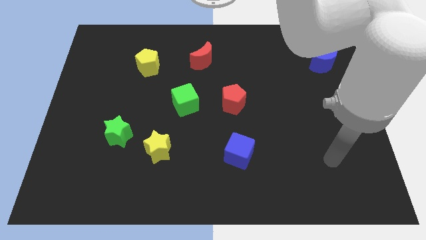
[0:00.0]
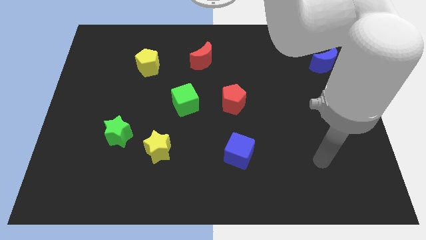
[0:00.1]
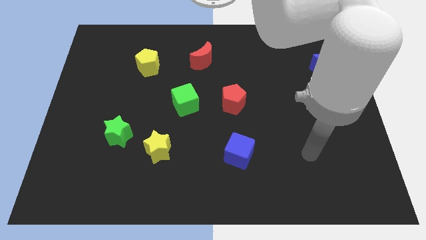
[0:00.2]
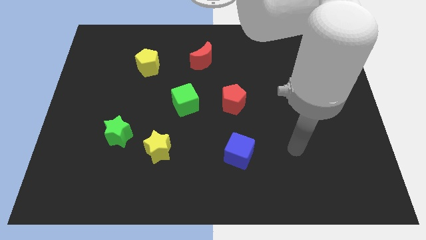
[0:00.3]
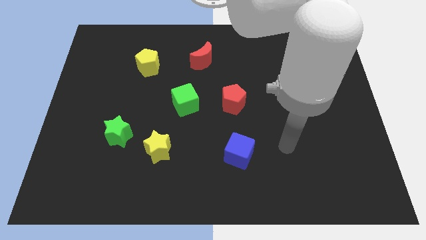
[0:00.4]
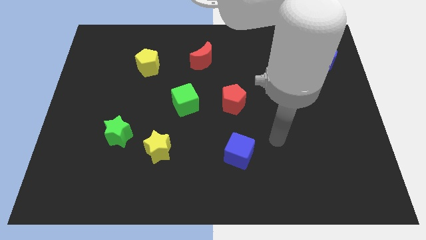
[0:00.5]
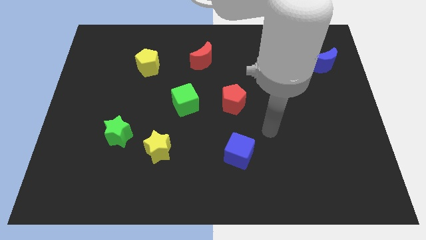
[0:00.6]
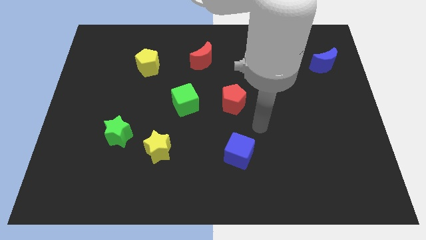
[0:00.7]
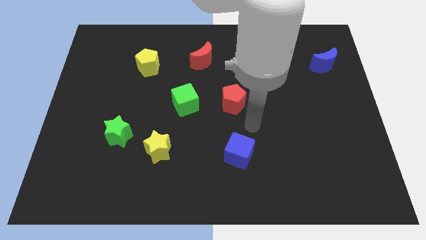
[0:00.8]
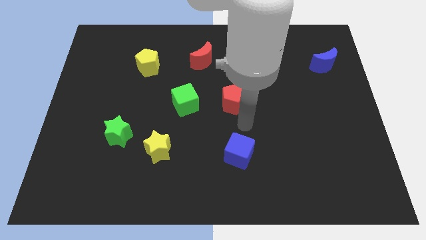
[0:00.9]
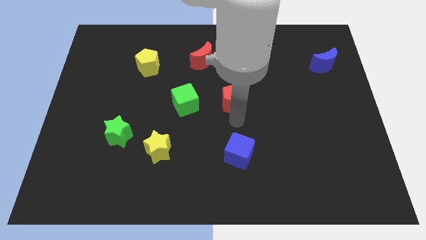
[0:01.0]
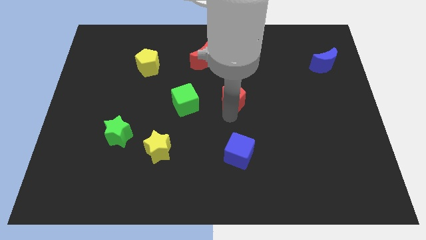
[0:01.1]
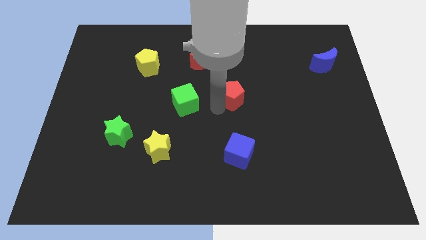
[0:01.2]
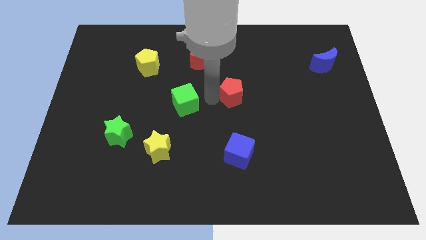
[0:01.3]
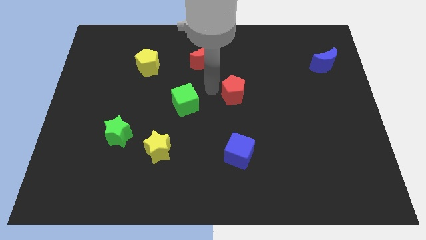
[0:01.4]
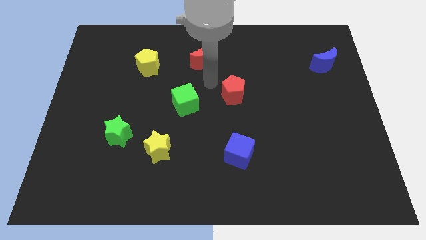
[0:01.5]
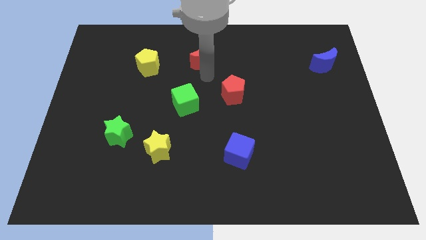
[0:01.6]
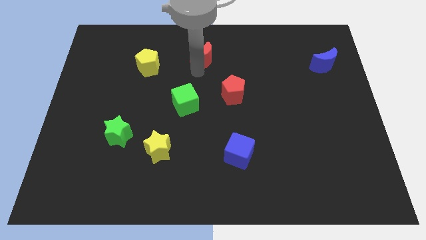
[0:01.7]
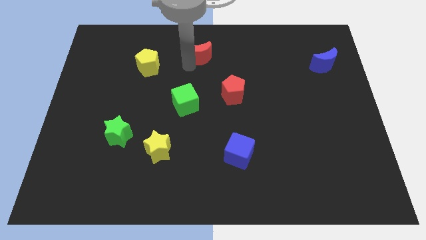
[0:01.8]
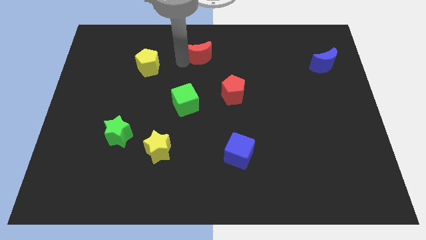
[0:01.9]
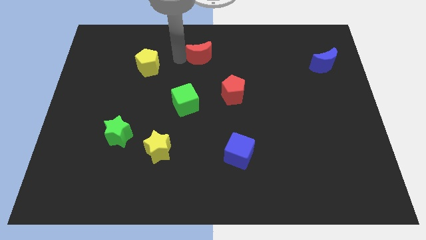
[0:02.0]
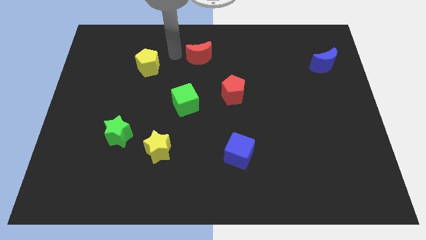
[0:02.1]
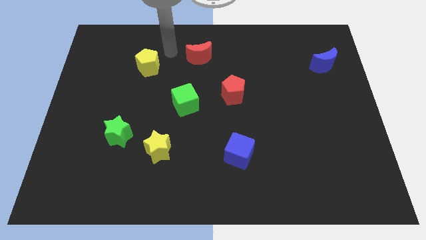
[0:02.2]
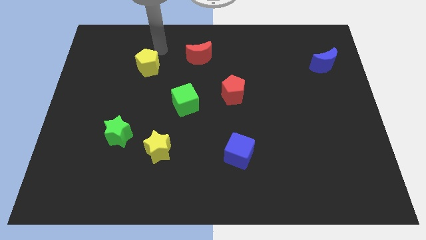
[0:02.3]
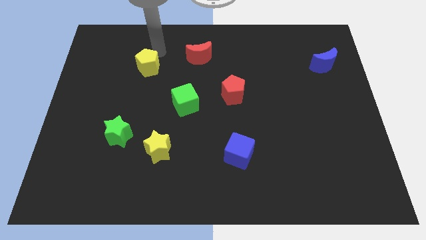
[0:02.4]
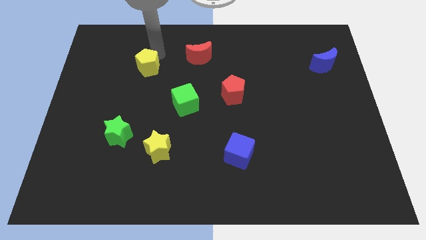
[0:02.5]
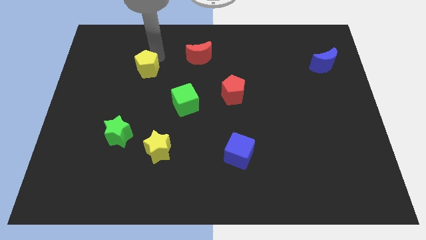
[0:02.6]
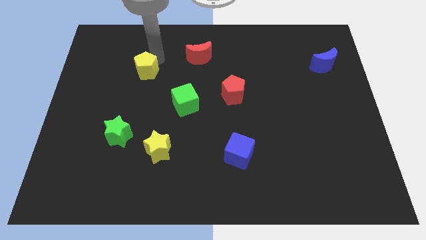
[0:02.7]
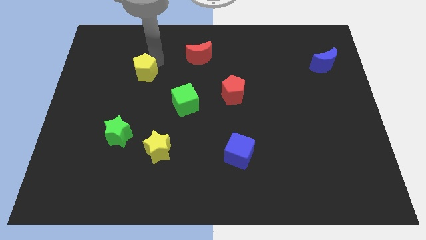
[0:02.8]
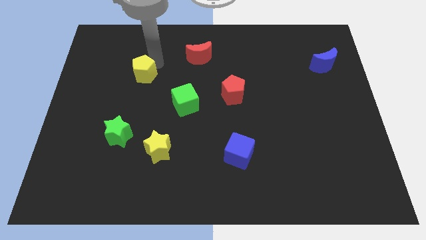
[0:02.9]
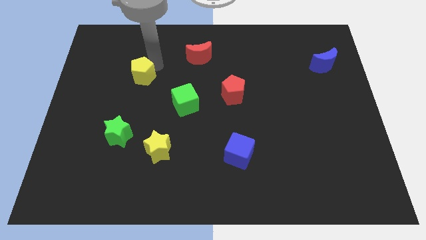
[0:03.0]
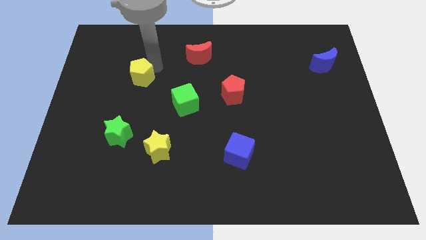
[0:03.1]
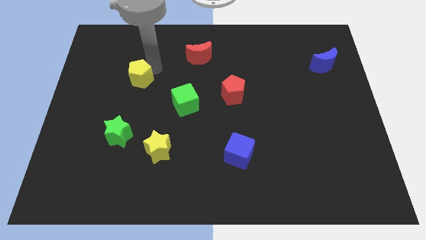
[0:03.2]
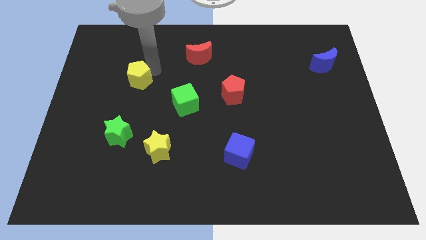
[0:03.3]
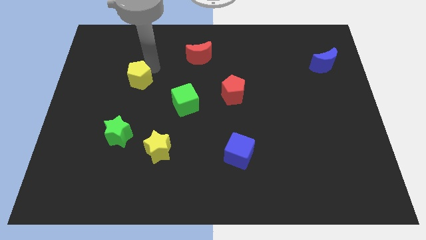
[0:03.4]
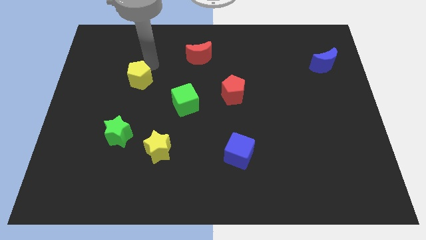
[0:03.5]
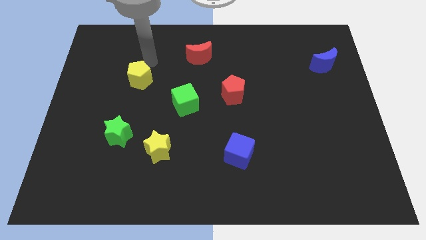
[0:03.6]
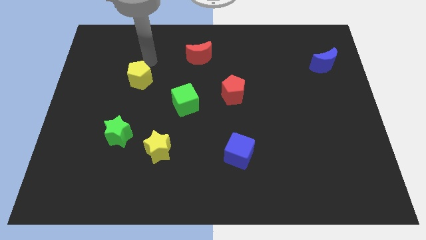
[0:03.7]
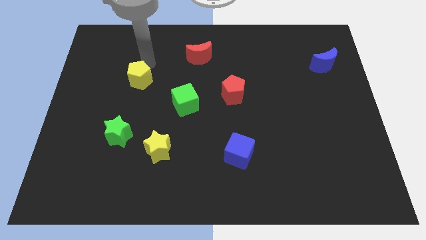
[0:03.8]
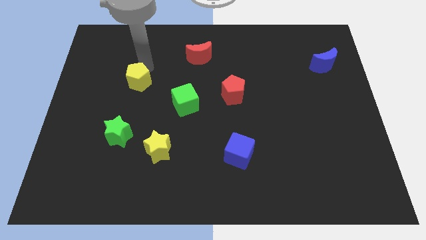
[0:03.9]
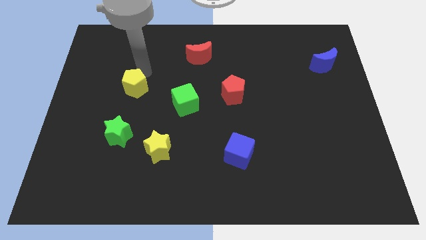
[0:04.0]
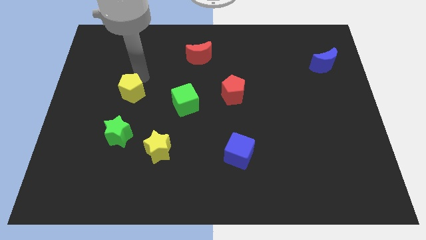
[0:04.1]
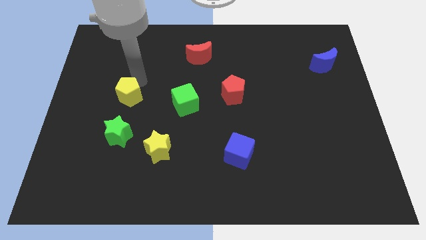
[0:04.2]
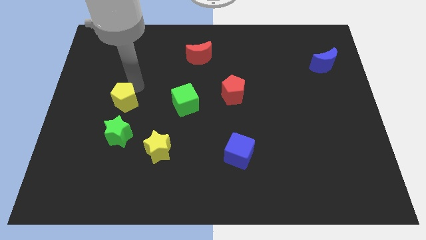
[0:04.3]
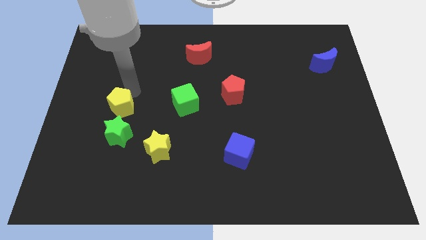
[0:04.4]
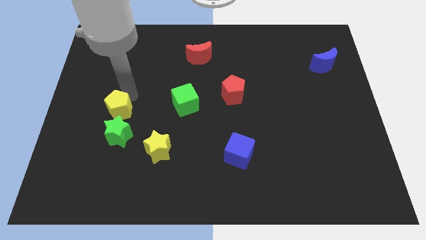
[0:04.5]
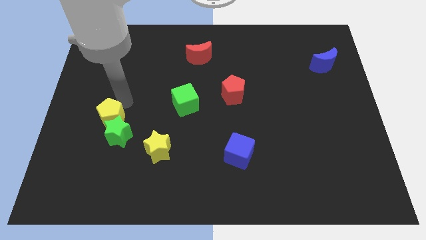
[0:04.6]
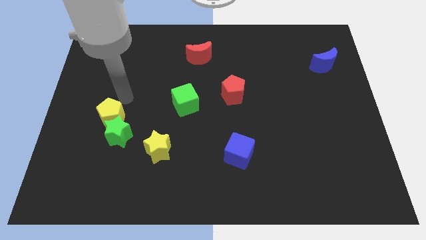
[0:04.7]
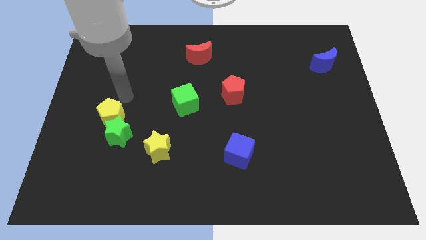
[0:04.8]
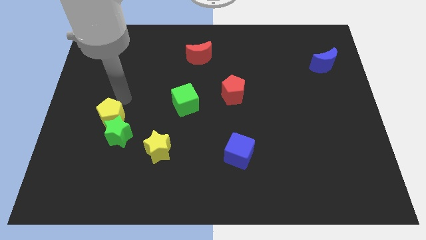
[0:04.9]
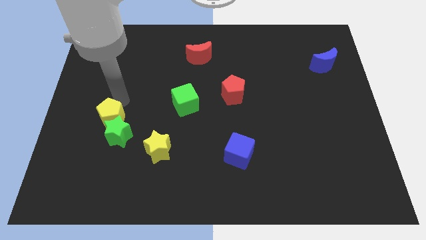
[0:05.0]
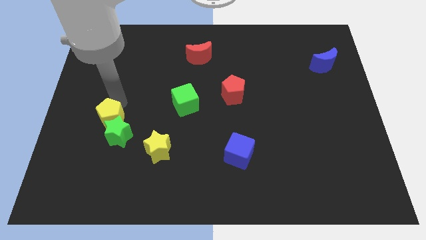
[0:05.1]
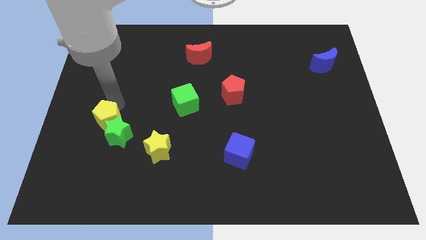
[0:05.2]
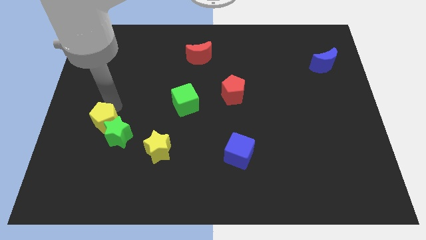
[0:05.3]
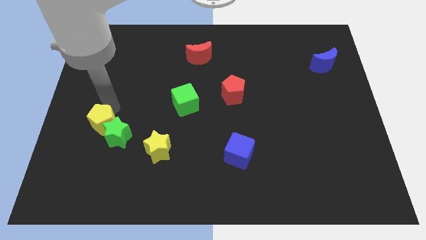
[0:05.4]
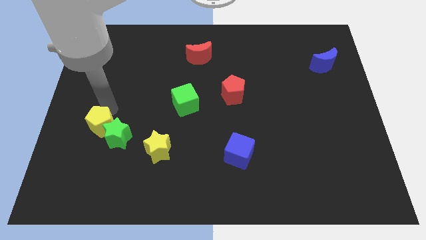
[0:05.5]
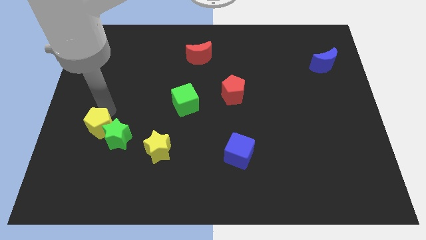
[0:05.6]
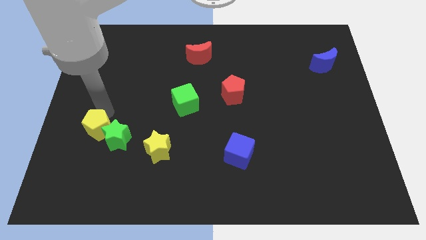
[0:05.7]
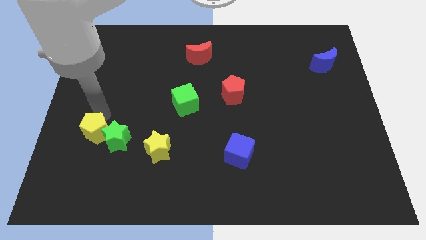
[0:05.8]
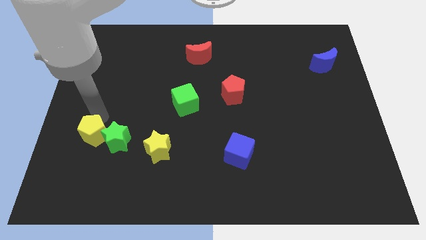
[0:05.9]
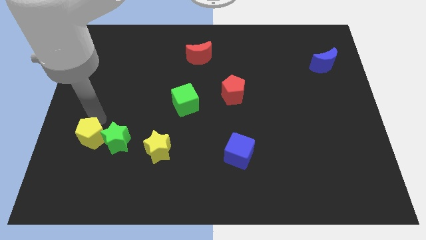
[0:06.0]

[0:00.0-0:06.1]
put the yellow pentagon diagonally down and to the left of the green star

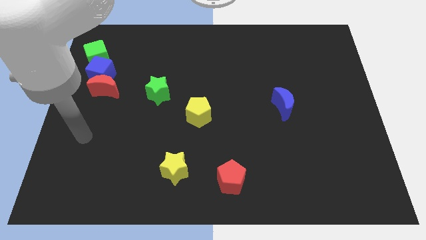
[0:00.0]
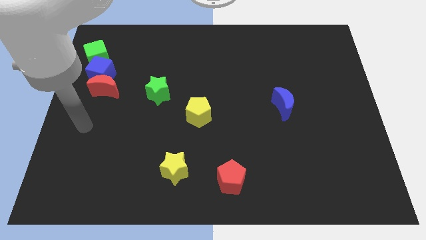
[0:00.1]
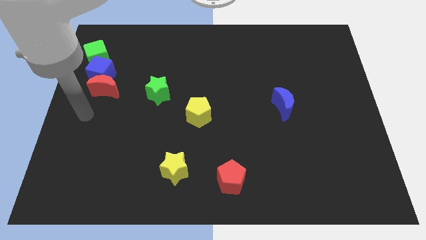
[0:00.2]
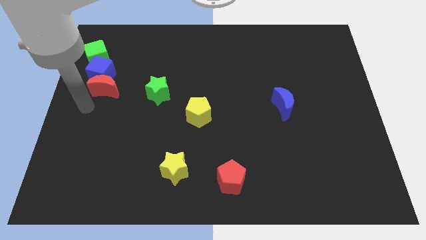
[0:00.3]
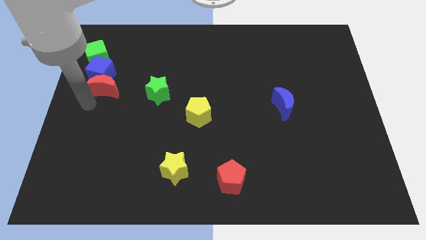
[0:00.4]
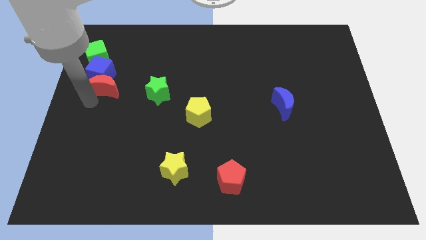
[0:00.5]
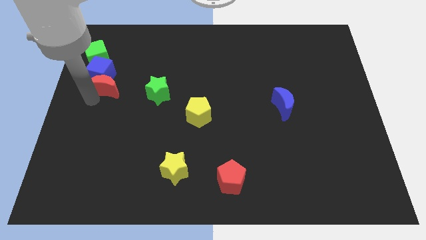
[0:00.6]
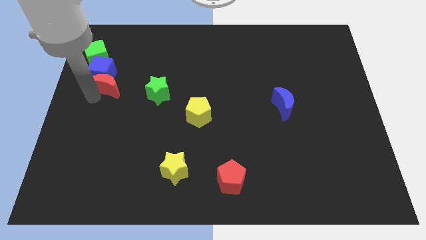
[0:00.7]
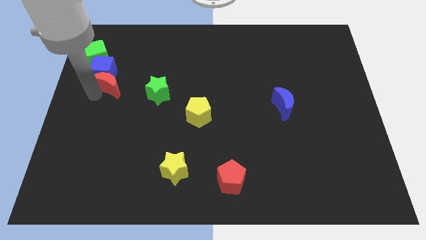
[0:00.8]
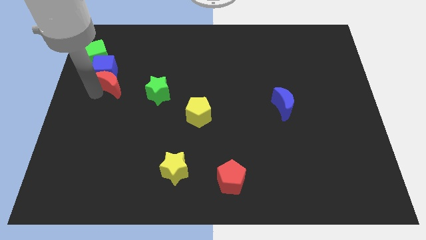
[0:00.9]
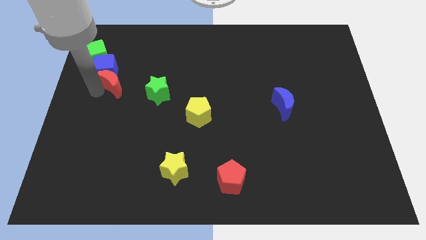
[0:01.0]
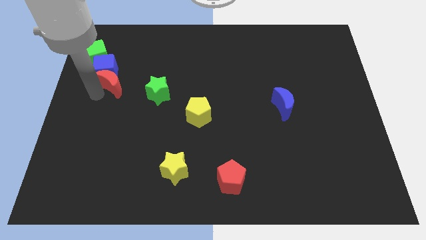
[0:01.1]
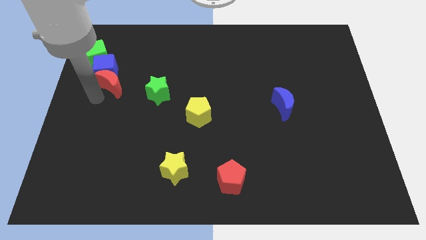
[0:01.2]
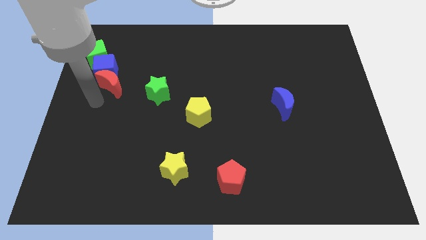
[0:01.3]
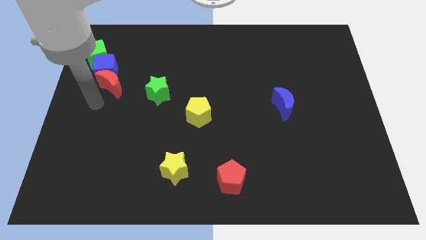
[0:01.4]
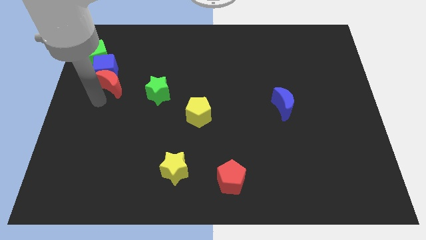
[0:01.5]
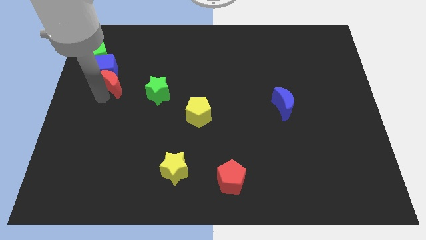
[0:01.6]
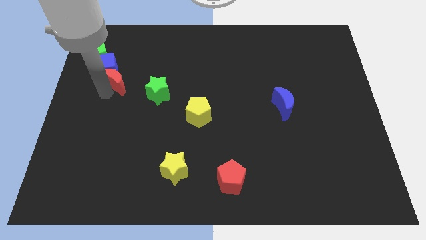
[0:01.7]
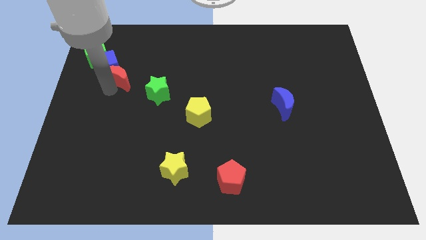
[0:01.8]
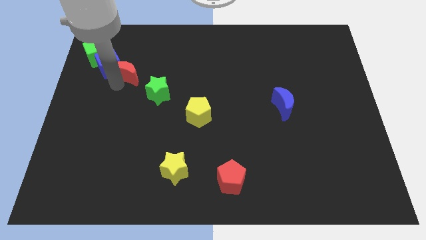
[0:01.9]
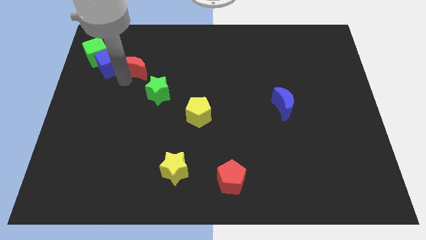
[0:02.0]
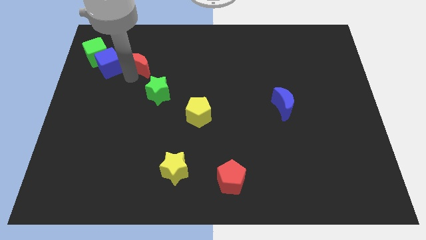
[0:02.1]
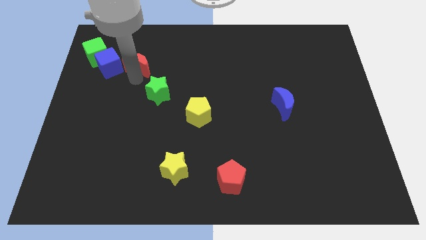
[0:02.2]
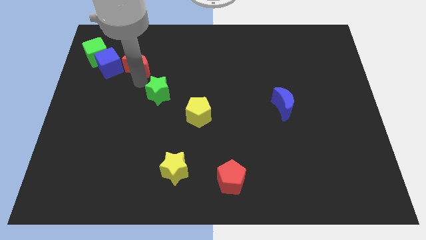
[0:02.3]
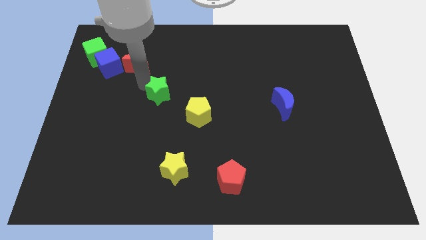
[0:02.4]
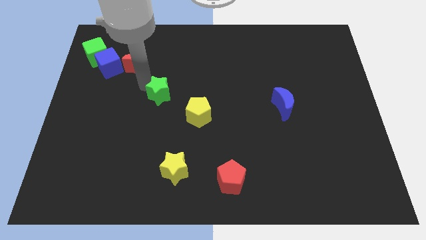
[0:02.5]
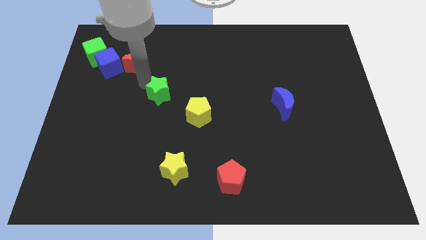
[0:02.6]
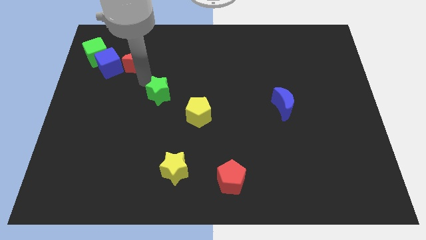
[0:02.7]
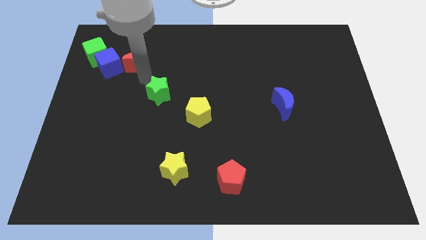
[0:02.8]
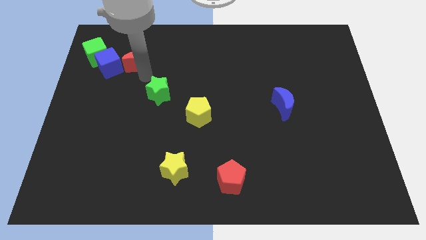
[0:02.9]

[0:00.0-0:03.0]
slide the red moon to the top right side of the blue cube
